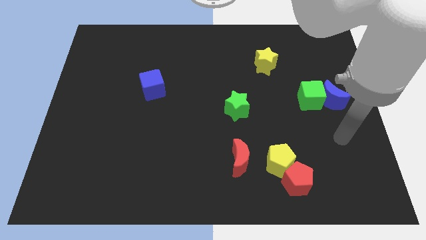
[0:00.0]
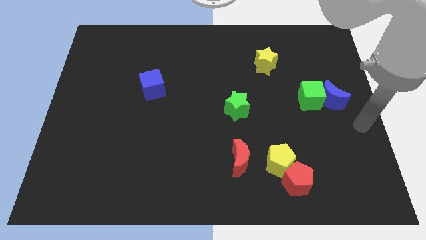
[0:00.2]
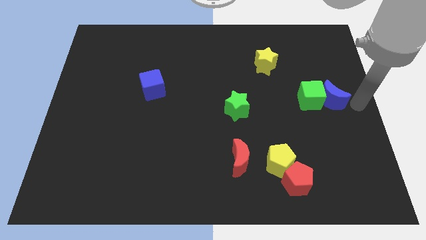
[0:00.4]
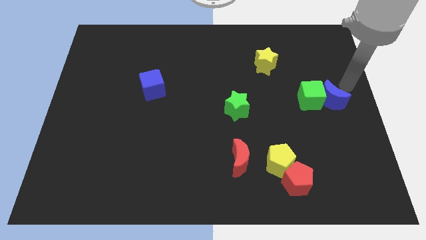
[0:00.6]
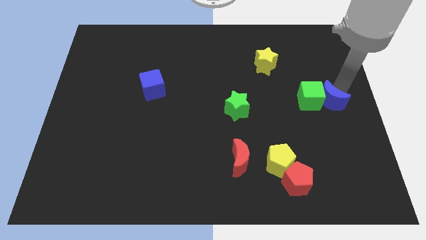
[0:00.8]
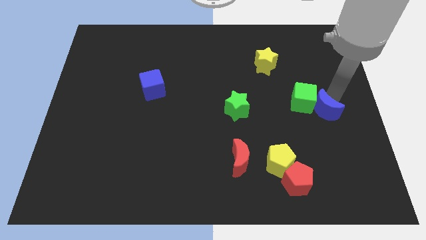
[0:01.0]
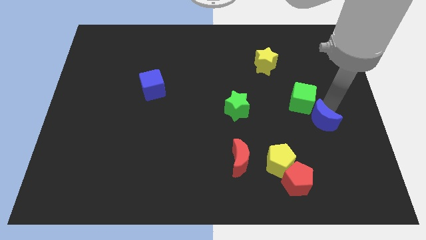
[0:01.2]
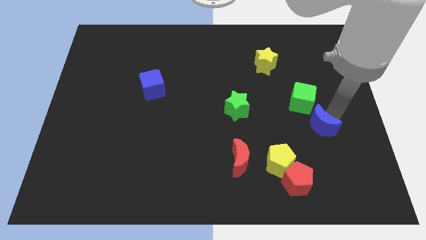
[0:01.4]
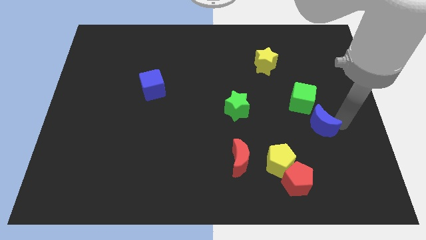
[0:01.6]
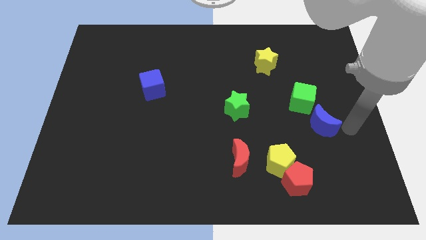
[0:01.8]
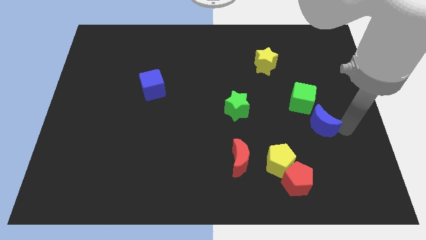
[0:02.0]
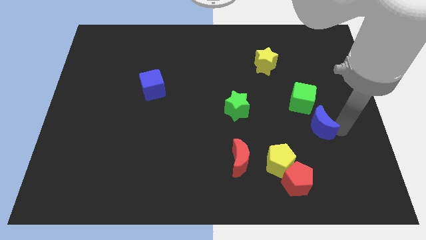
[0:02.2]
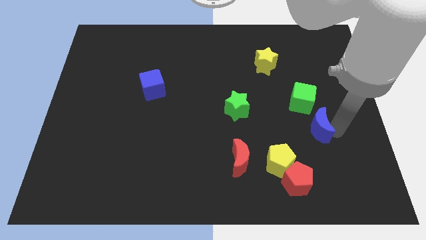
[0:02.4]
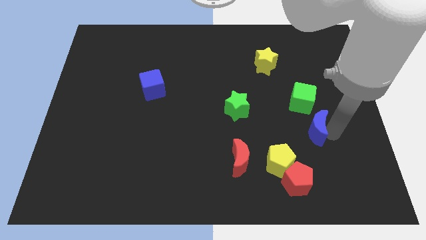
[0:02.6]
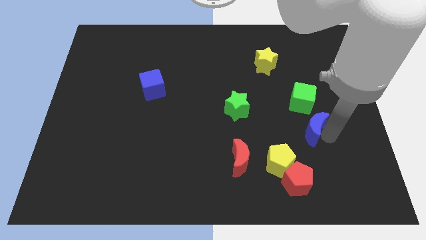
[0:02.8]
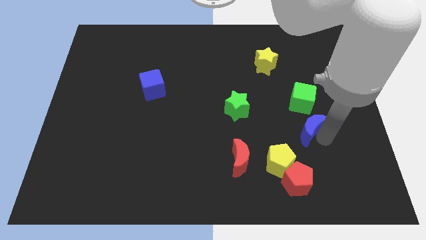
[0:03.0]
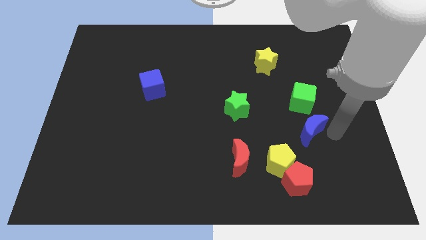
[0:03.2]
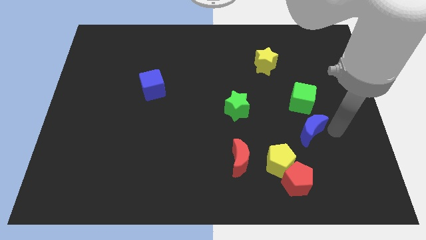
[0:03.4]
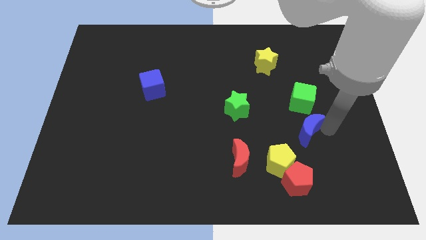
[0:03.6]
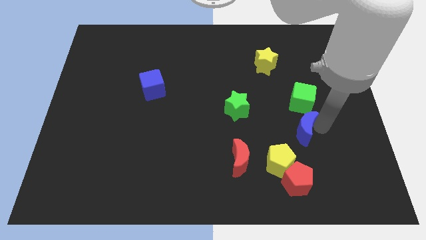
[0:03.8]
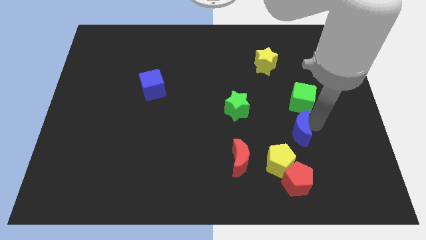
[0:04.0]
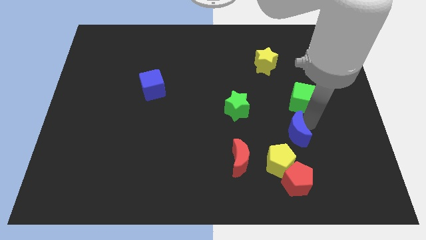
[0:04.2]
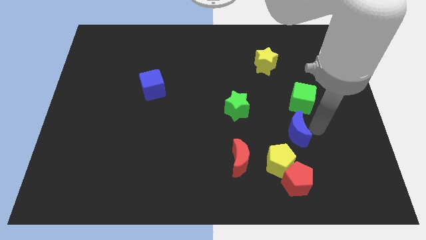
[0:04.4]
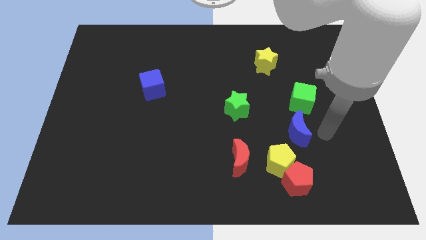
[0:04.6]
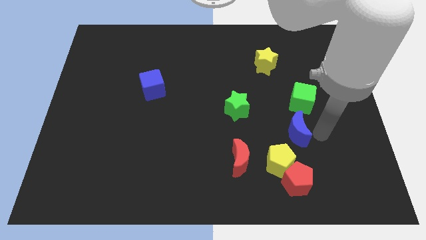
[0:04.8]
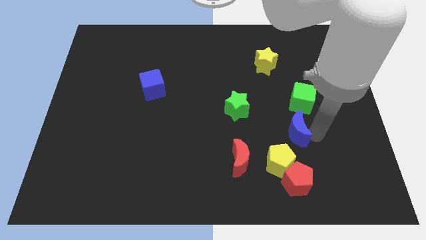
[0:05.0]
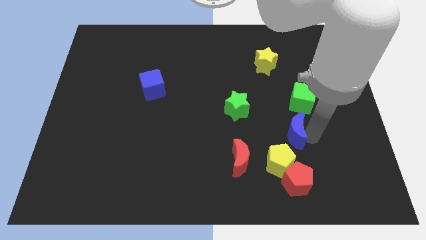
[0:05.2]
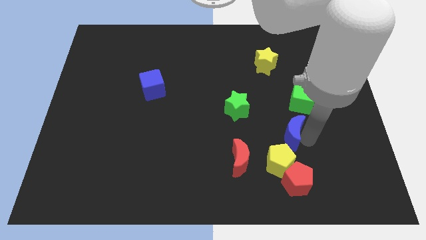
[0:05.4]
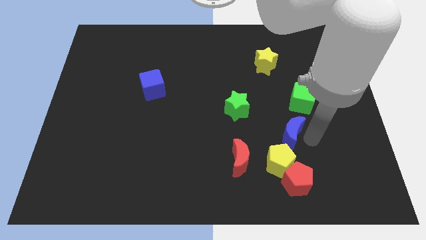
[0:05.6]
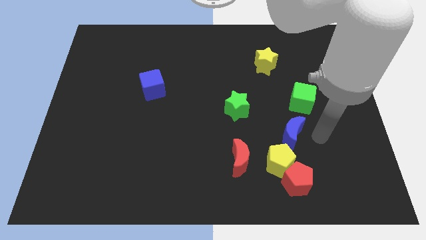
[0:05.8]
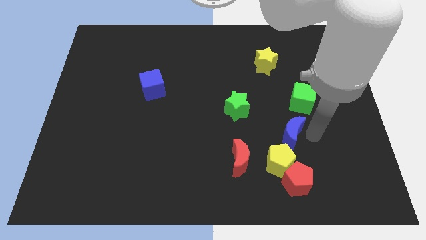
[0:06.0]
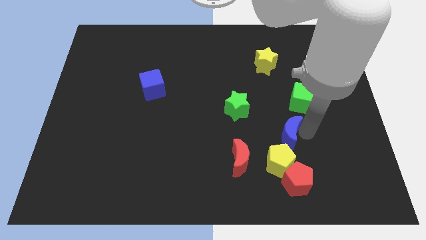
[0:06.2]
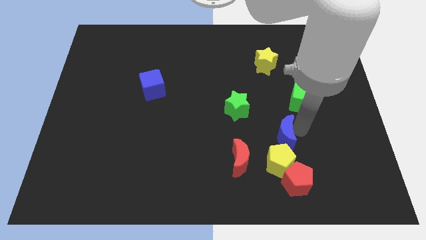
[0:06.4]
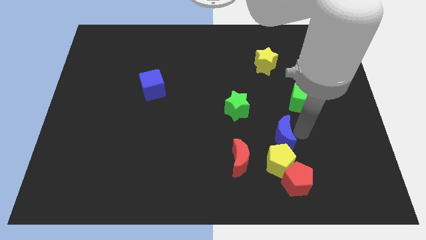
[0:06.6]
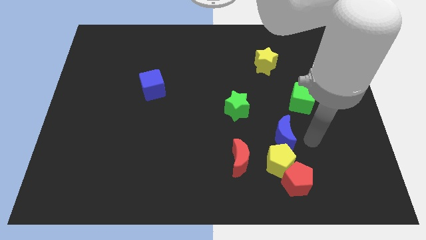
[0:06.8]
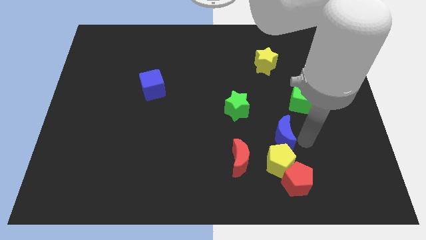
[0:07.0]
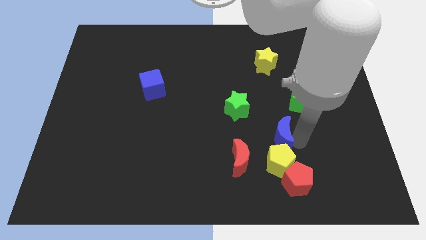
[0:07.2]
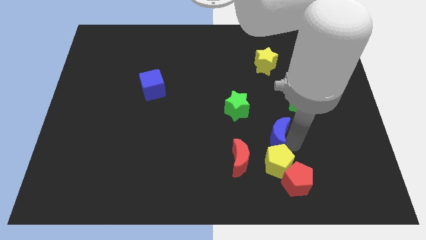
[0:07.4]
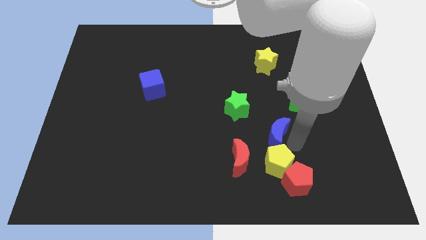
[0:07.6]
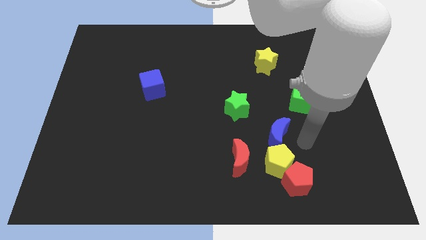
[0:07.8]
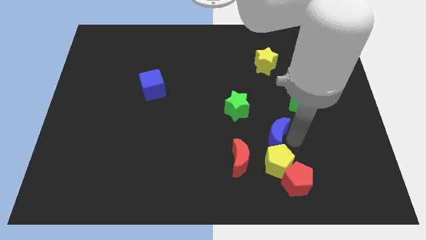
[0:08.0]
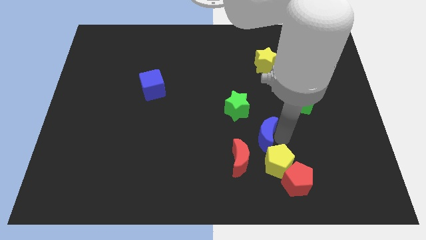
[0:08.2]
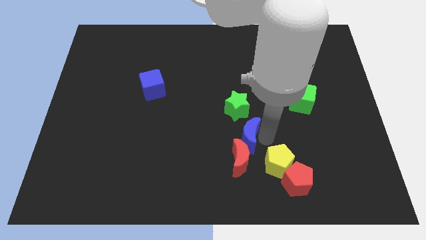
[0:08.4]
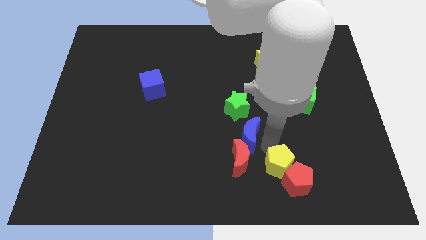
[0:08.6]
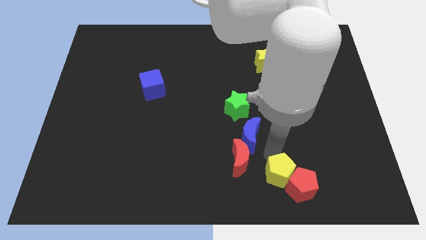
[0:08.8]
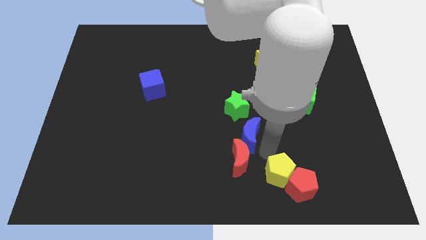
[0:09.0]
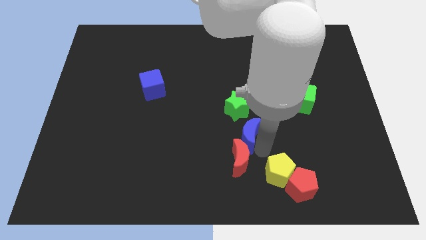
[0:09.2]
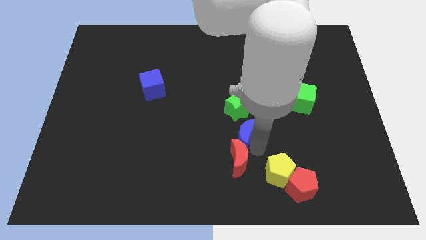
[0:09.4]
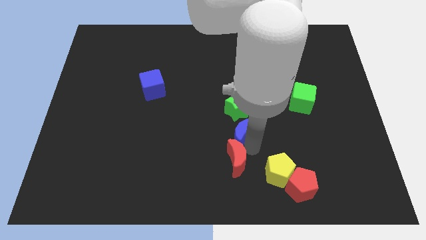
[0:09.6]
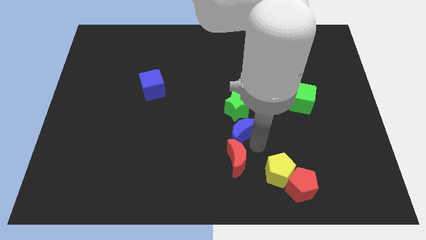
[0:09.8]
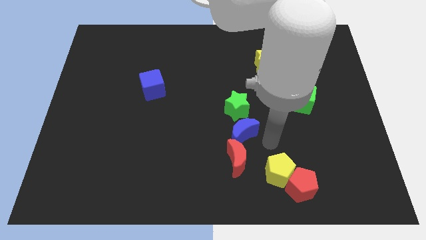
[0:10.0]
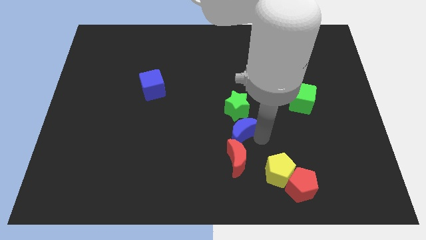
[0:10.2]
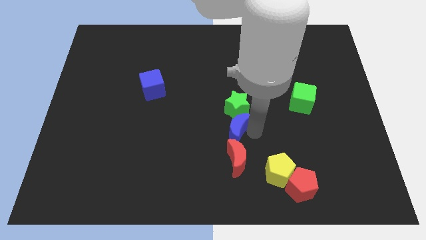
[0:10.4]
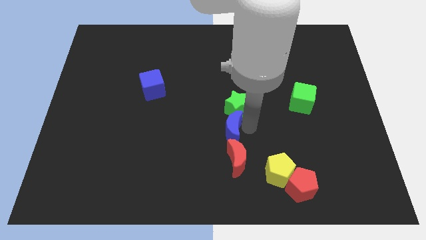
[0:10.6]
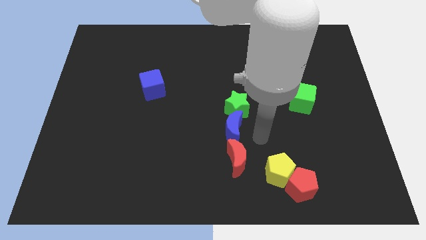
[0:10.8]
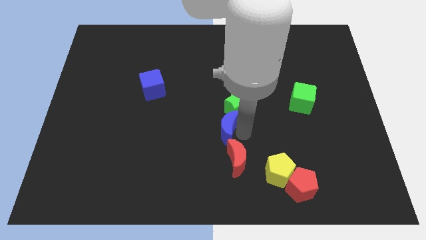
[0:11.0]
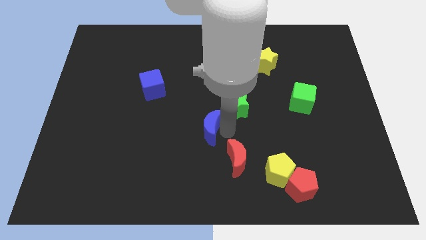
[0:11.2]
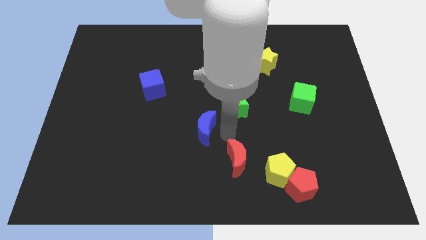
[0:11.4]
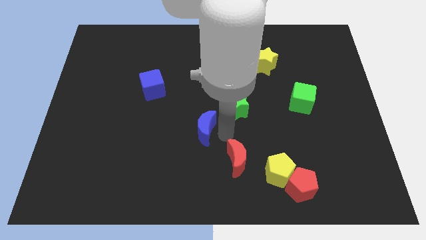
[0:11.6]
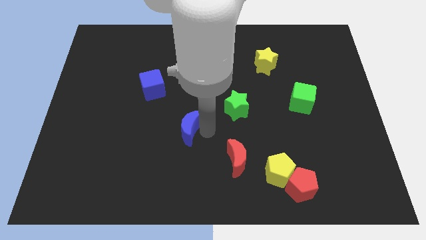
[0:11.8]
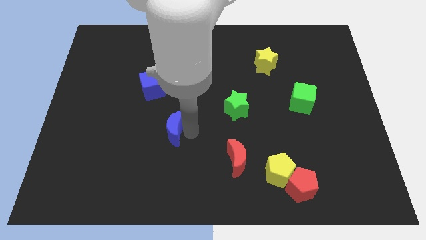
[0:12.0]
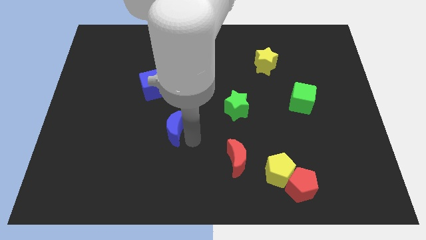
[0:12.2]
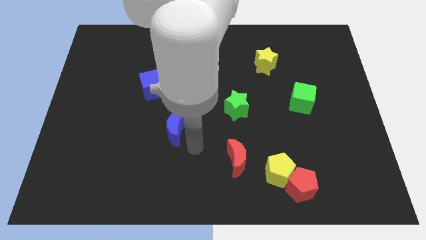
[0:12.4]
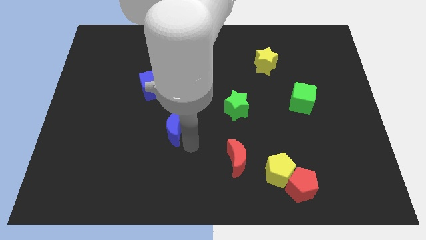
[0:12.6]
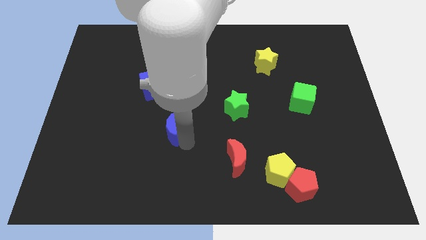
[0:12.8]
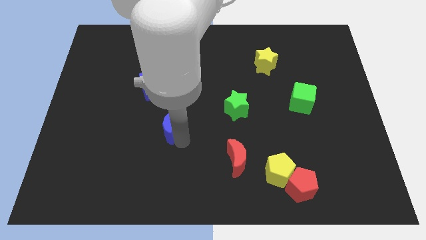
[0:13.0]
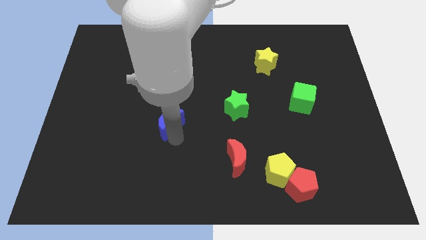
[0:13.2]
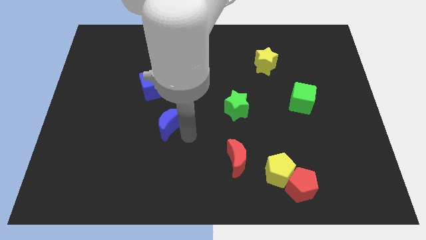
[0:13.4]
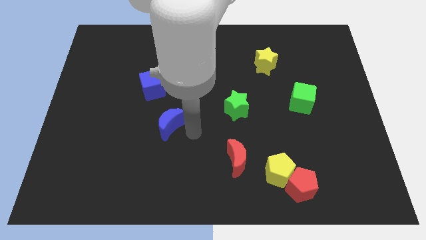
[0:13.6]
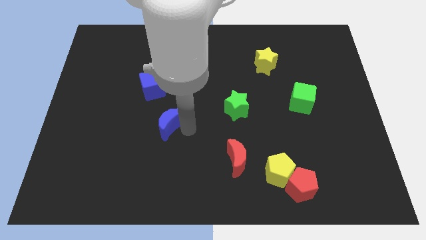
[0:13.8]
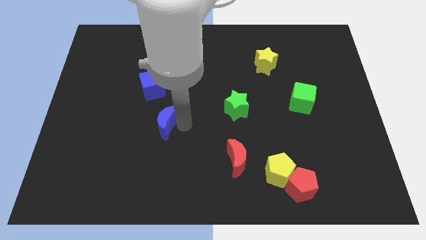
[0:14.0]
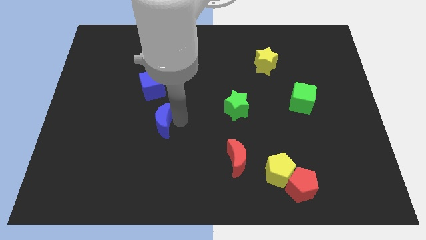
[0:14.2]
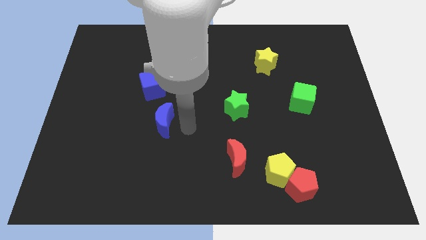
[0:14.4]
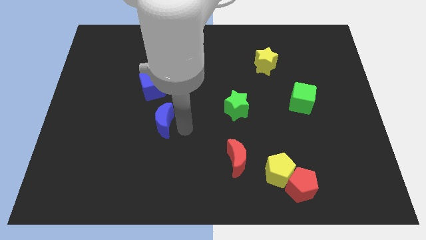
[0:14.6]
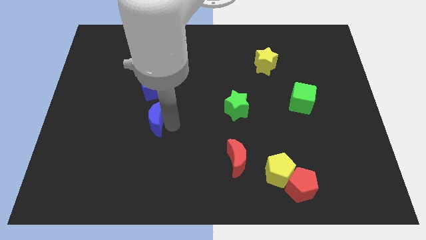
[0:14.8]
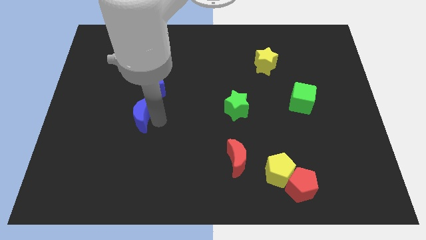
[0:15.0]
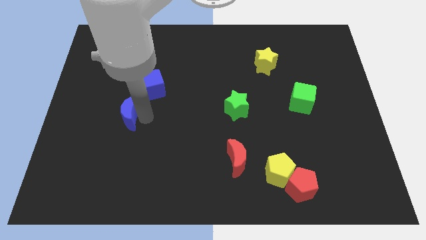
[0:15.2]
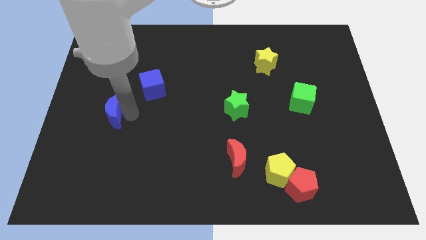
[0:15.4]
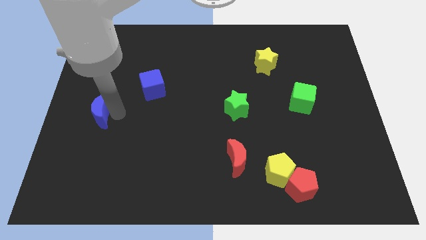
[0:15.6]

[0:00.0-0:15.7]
move the blue moon to the left side
